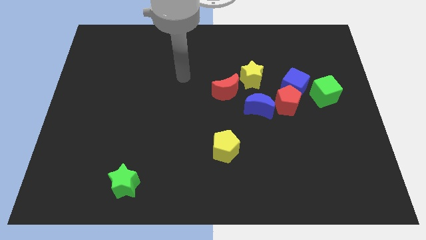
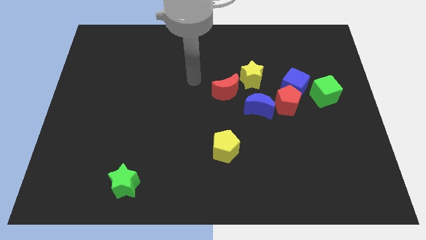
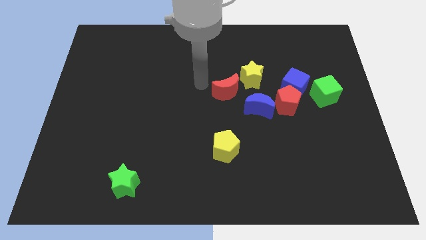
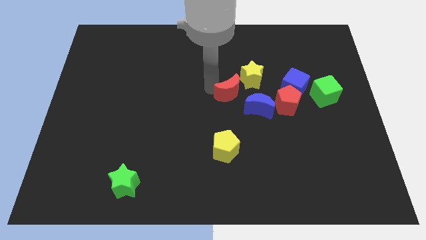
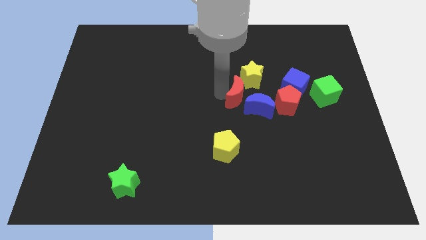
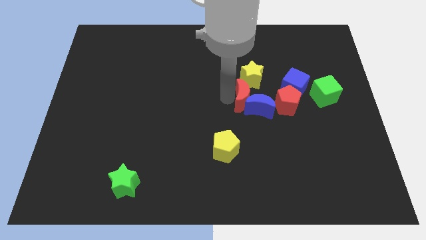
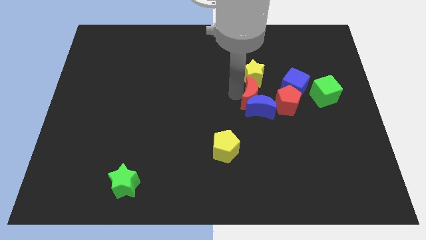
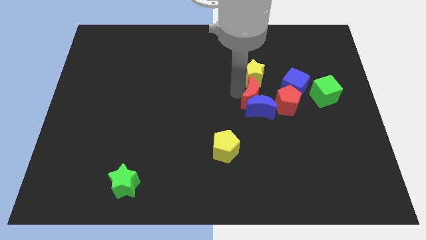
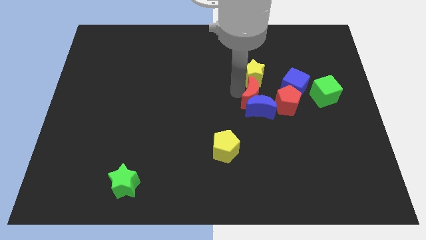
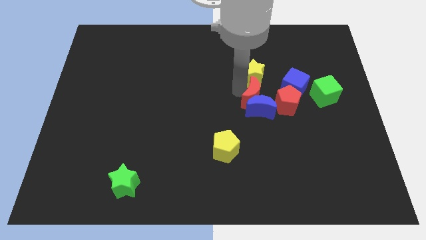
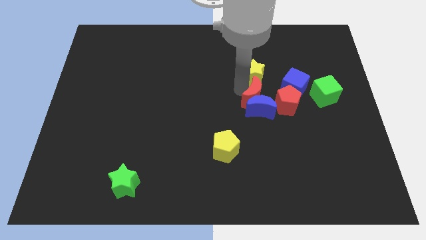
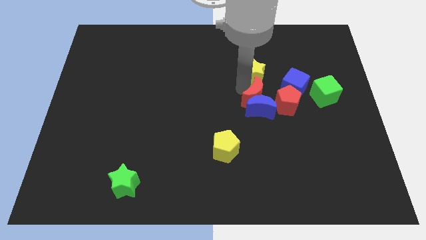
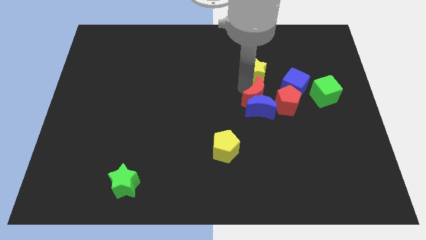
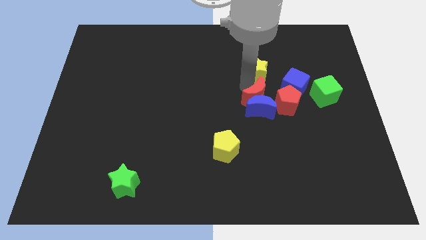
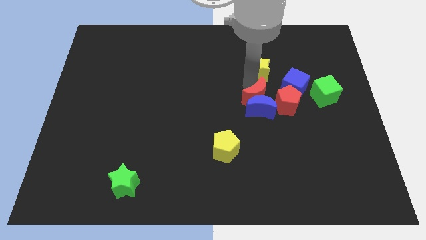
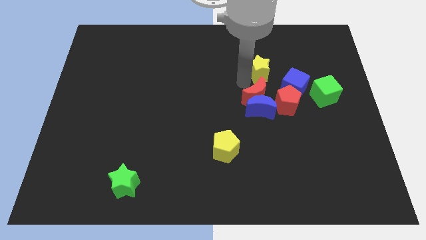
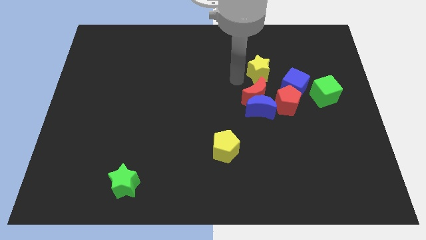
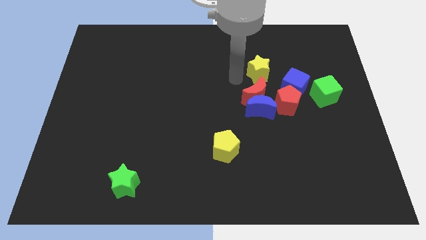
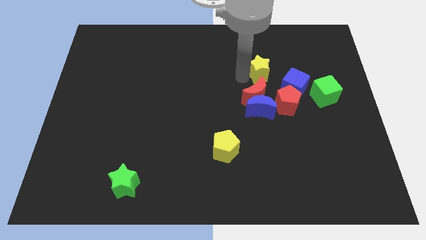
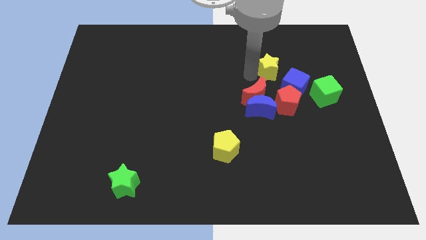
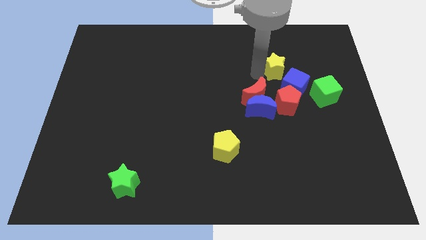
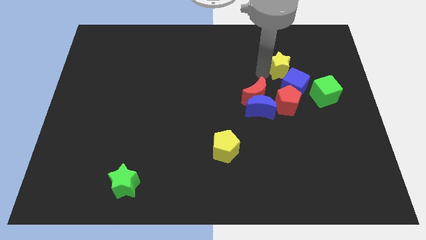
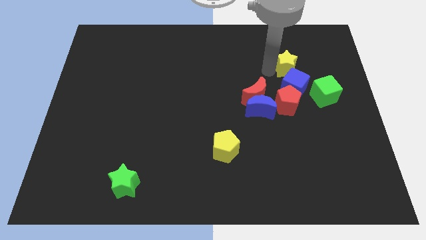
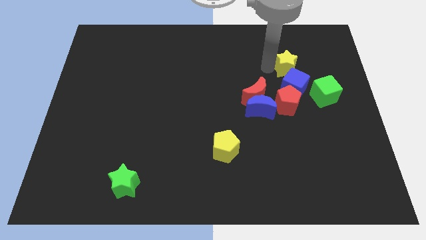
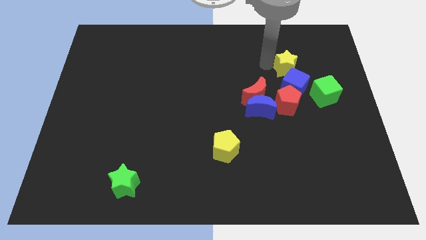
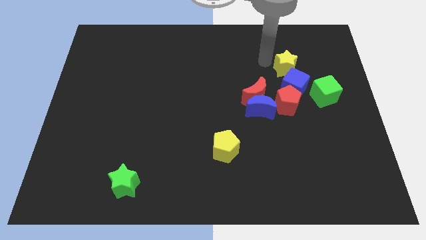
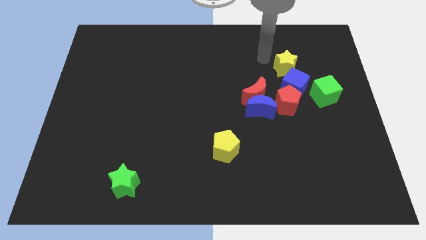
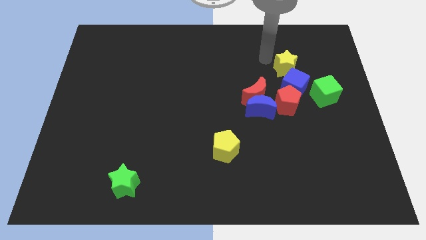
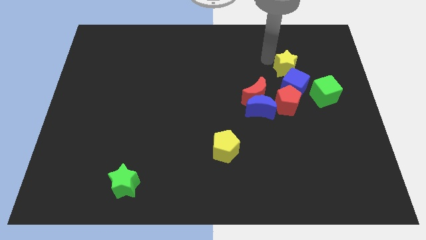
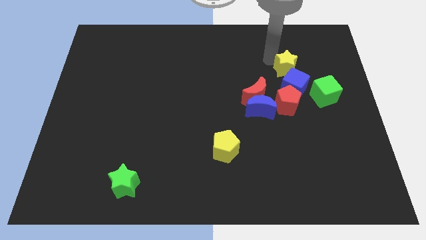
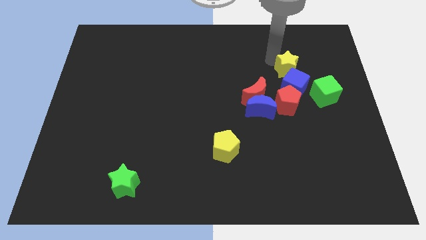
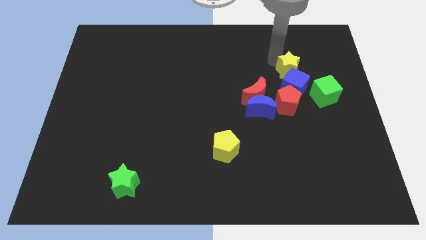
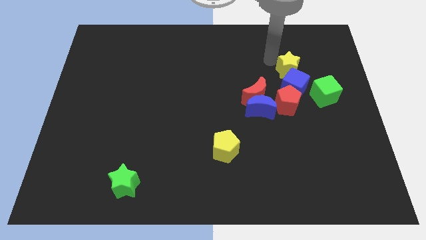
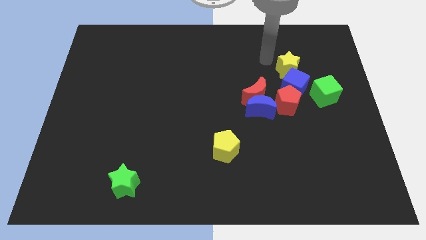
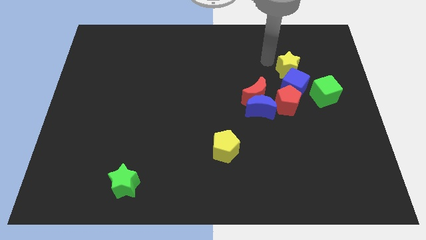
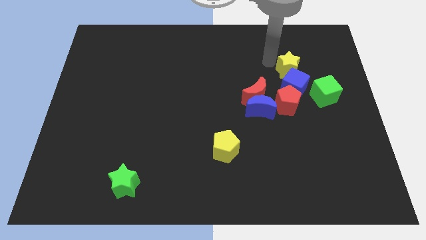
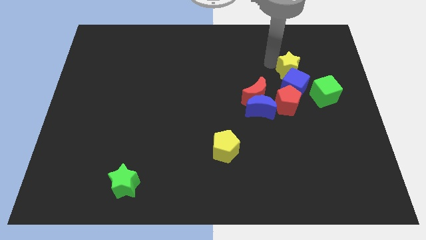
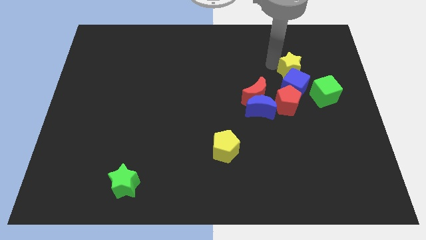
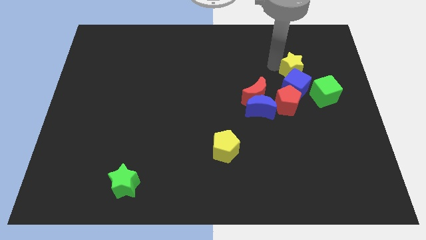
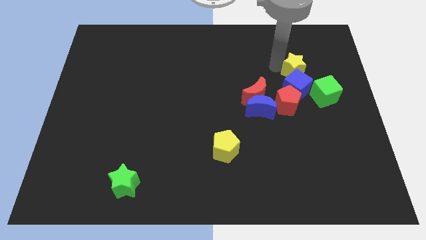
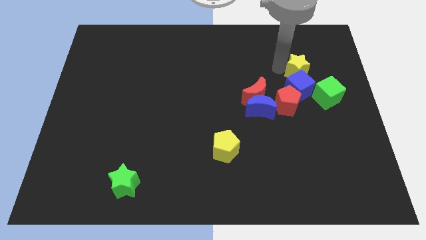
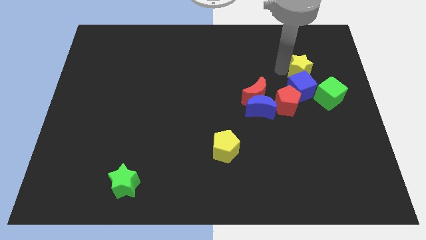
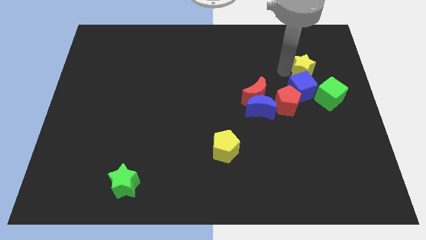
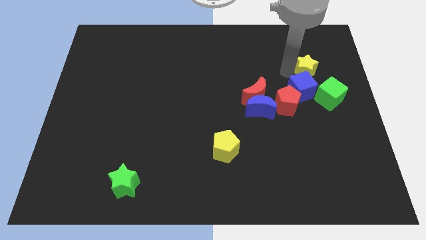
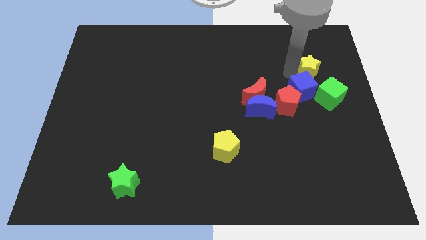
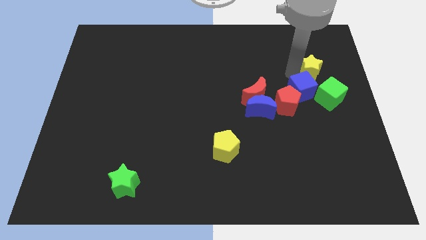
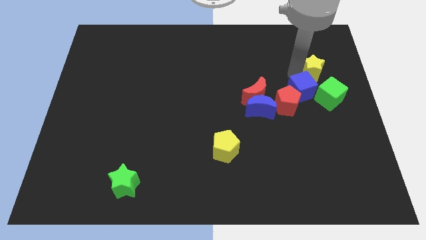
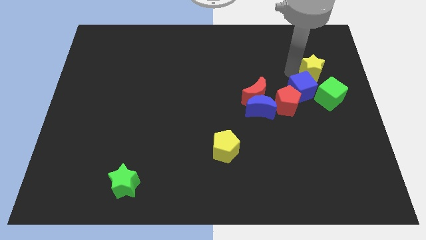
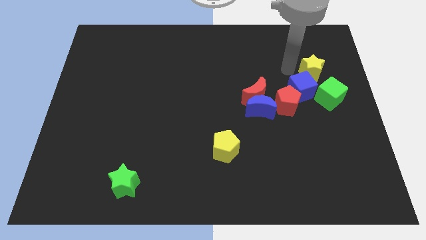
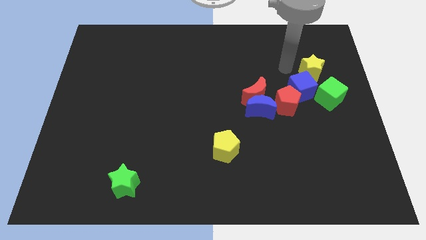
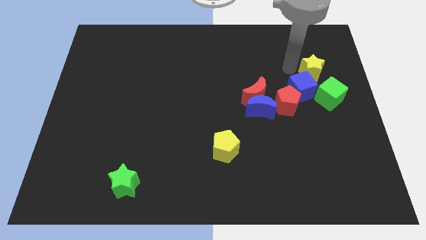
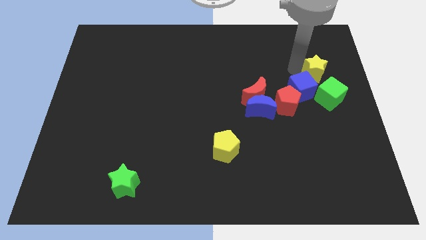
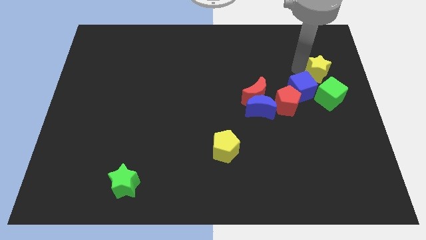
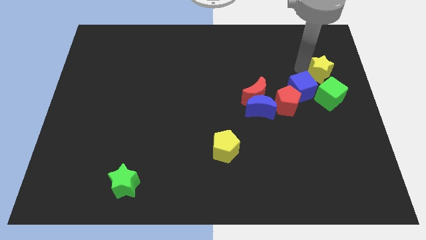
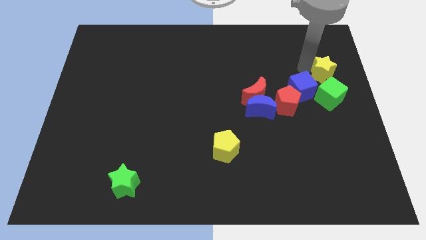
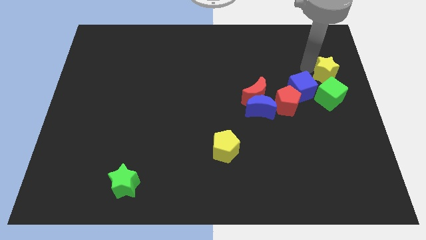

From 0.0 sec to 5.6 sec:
put the yellow star to the right side of the board
